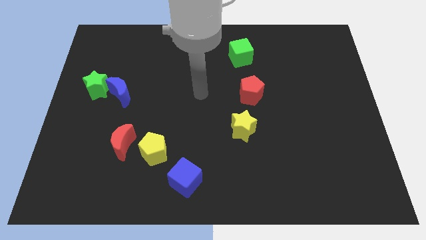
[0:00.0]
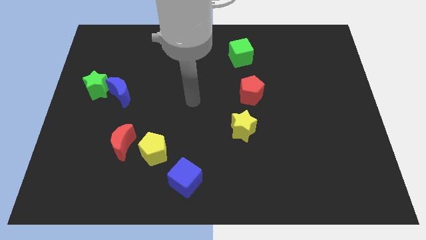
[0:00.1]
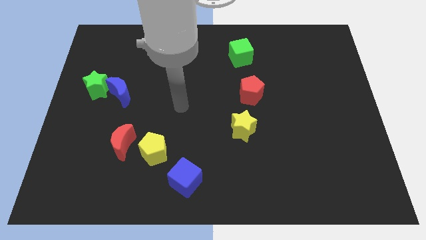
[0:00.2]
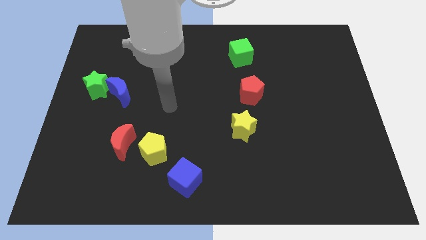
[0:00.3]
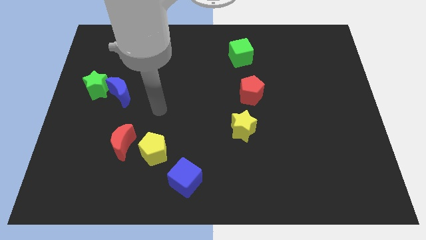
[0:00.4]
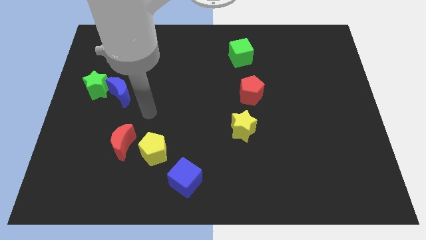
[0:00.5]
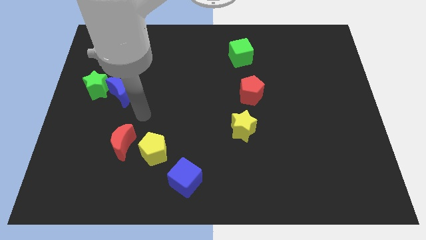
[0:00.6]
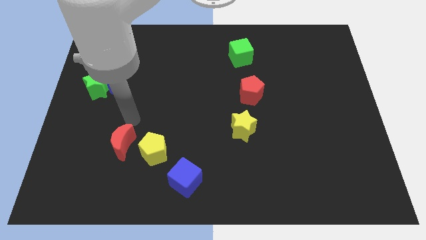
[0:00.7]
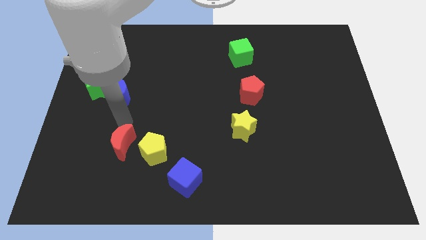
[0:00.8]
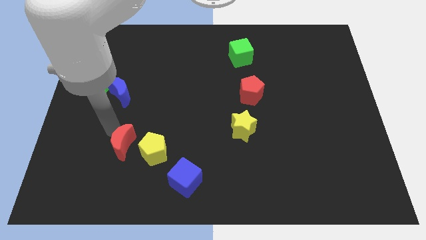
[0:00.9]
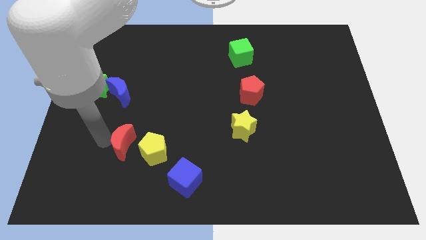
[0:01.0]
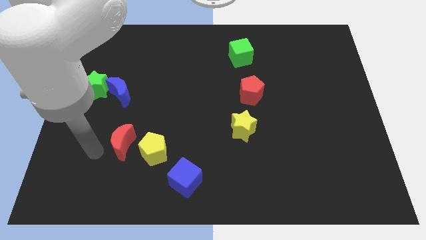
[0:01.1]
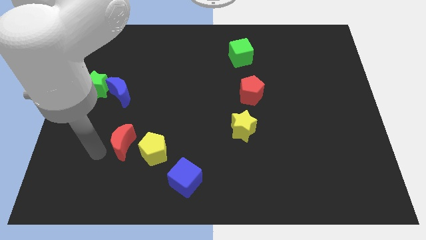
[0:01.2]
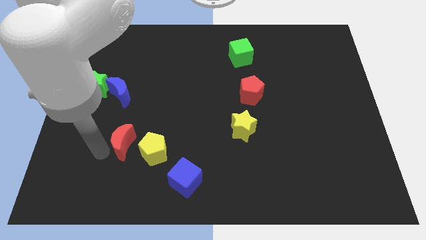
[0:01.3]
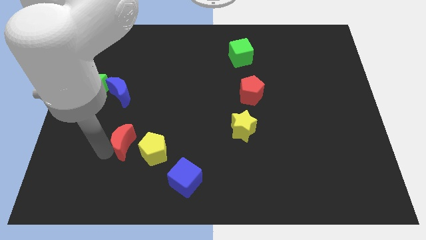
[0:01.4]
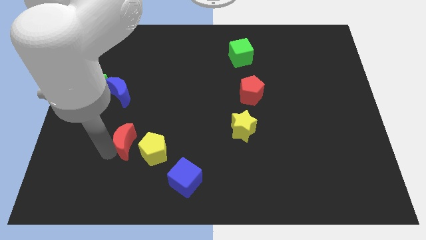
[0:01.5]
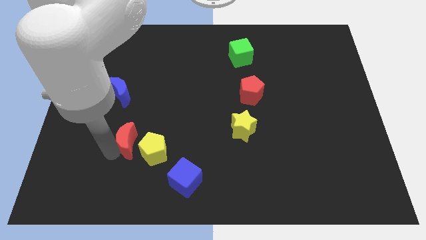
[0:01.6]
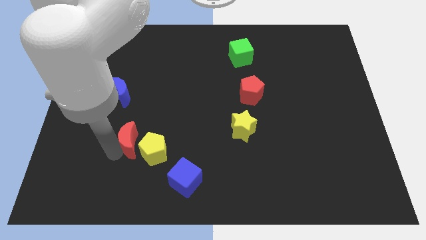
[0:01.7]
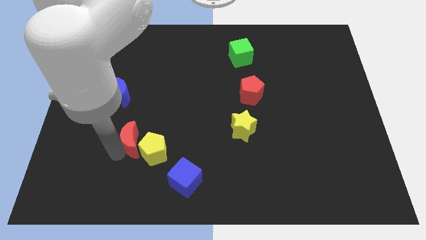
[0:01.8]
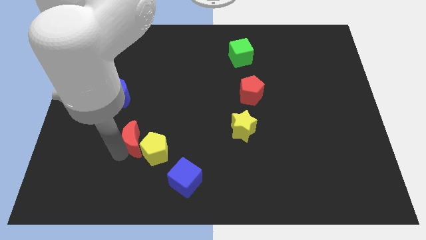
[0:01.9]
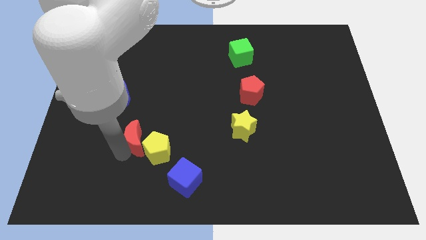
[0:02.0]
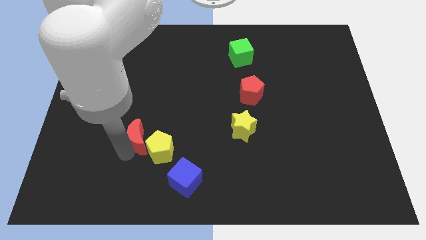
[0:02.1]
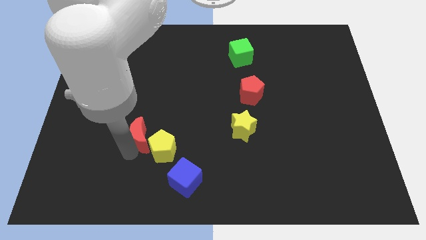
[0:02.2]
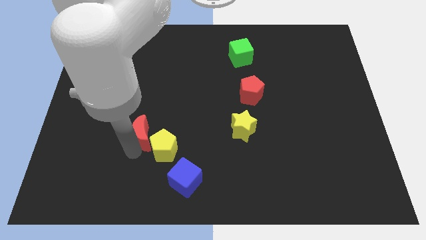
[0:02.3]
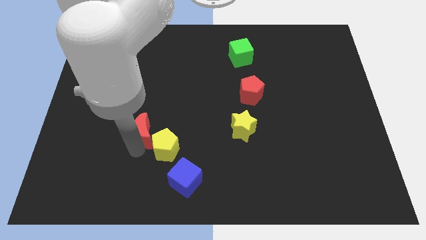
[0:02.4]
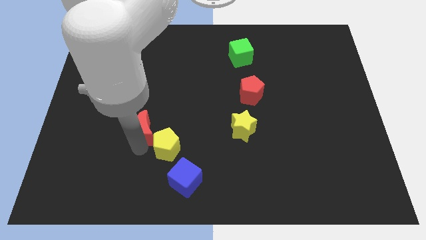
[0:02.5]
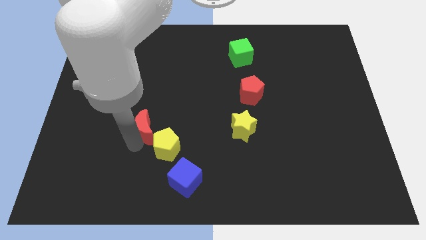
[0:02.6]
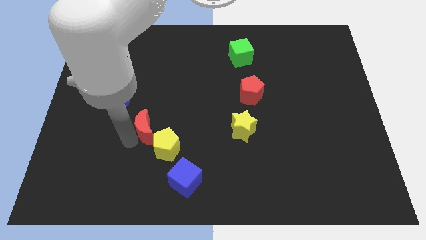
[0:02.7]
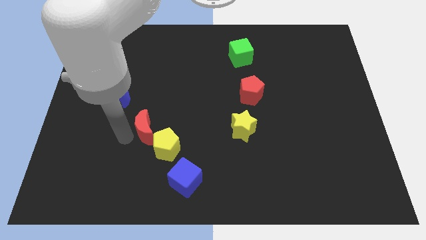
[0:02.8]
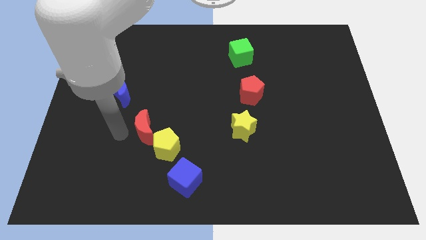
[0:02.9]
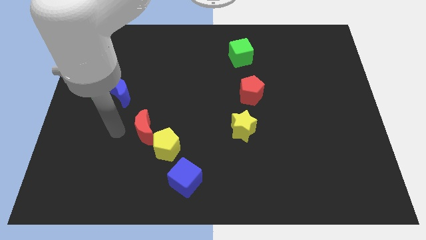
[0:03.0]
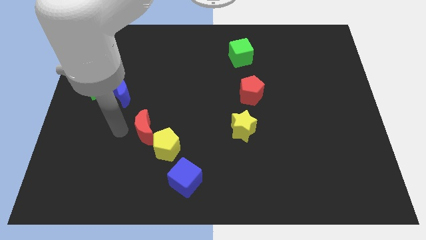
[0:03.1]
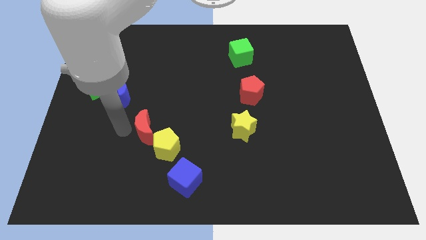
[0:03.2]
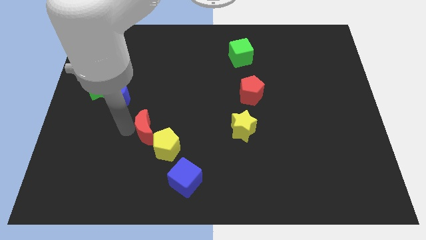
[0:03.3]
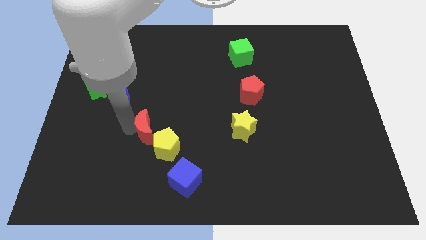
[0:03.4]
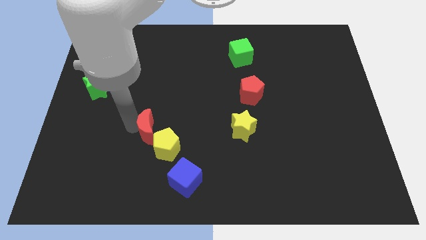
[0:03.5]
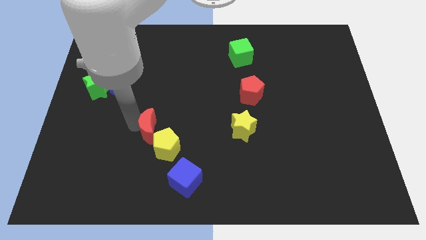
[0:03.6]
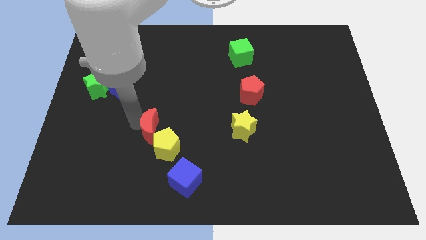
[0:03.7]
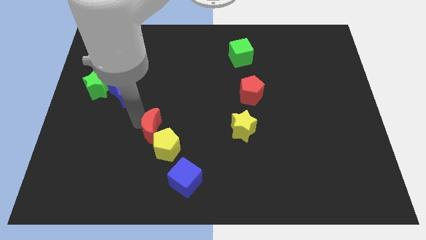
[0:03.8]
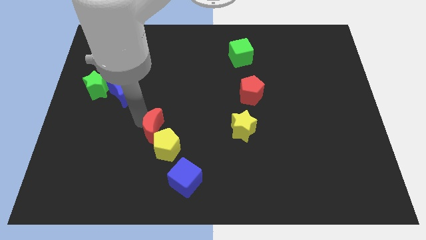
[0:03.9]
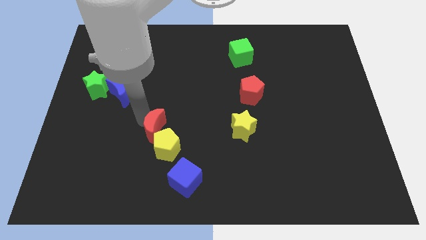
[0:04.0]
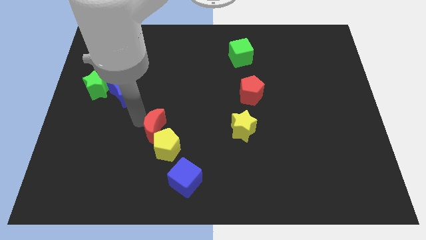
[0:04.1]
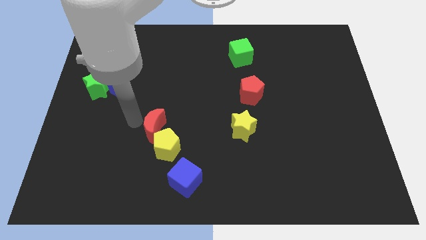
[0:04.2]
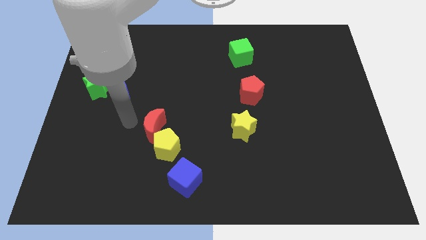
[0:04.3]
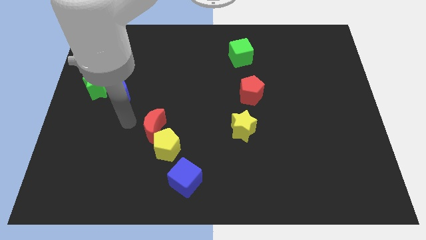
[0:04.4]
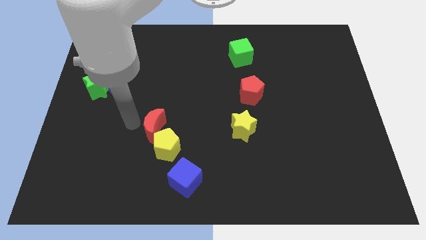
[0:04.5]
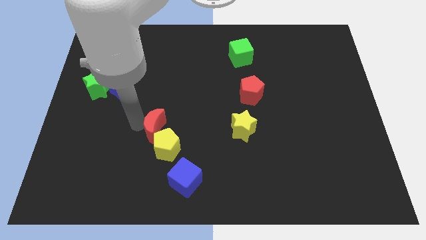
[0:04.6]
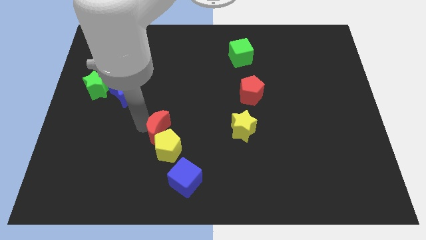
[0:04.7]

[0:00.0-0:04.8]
slightly slide the red moon to the right

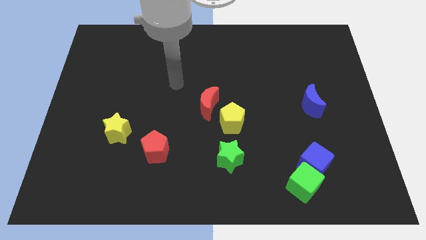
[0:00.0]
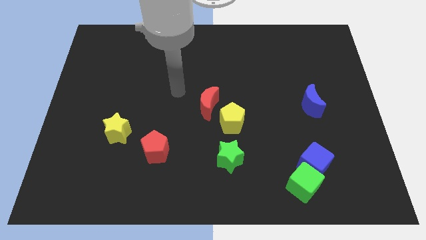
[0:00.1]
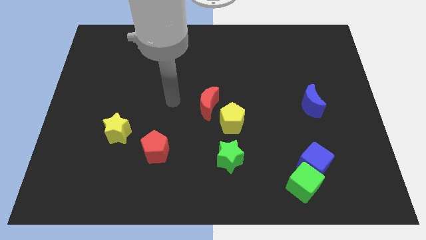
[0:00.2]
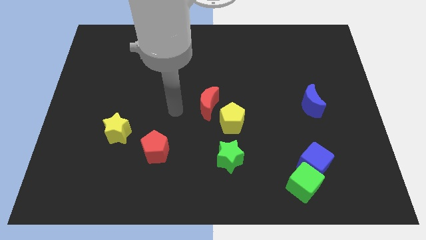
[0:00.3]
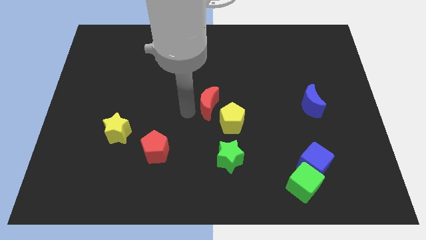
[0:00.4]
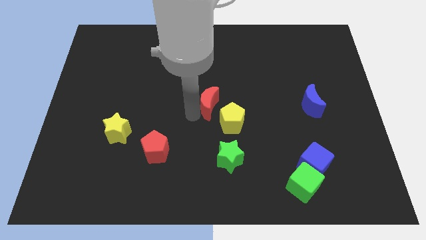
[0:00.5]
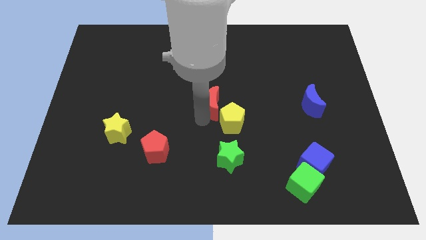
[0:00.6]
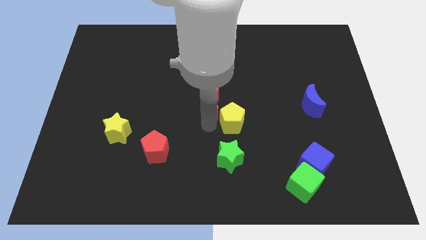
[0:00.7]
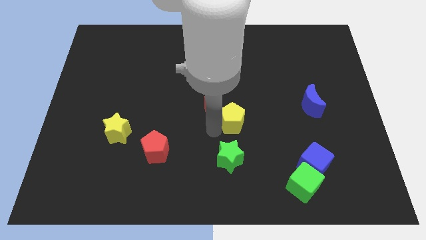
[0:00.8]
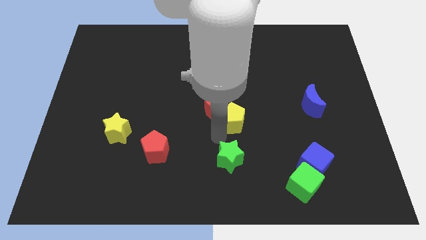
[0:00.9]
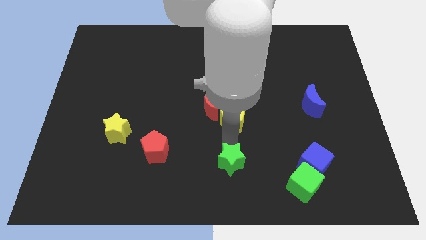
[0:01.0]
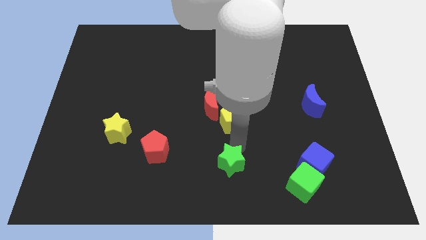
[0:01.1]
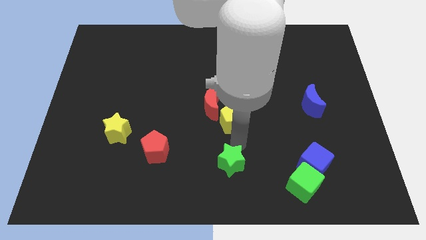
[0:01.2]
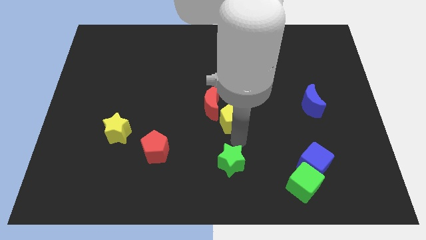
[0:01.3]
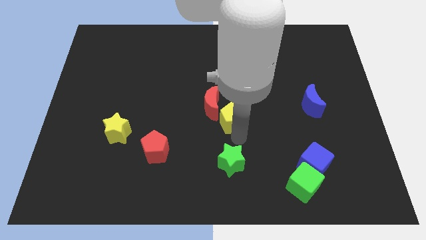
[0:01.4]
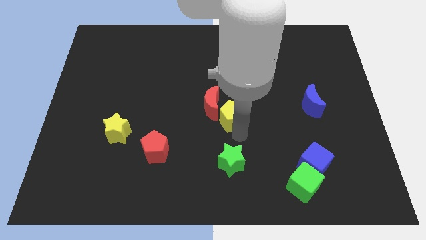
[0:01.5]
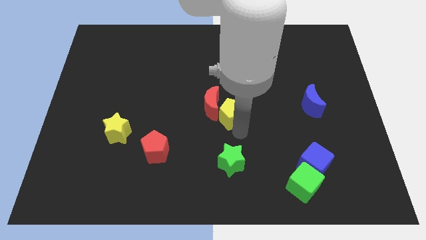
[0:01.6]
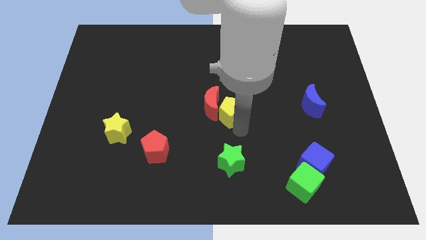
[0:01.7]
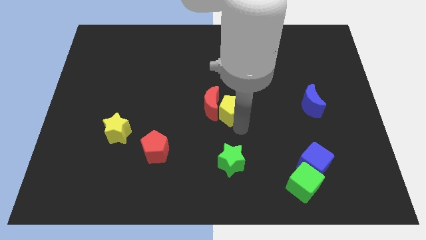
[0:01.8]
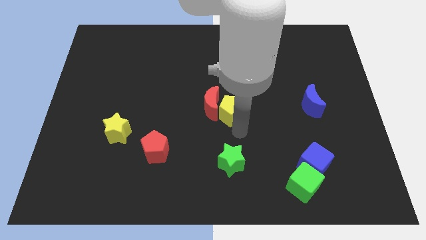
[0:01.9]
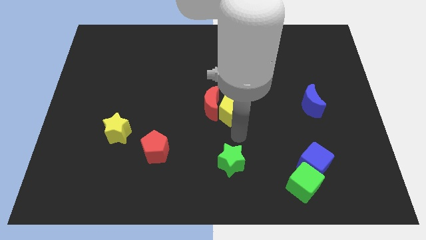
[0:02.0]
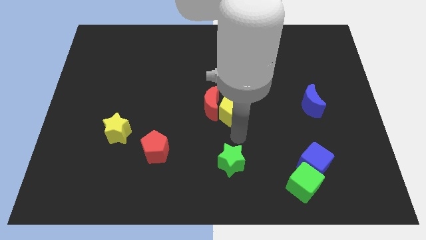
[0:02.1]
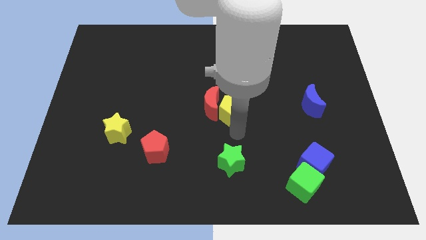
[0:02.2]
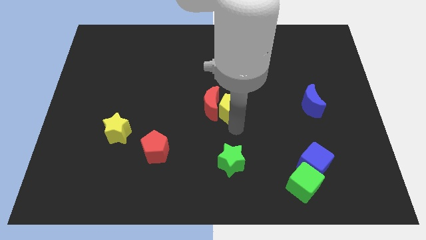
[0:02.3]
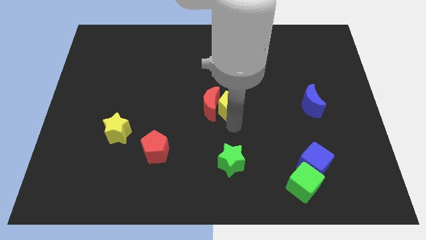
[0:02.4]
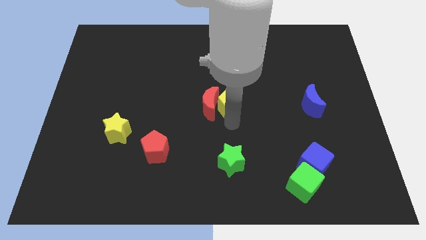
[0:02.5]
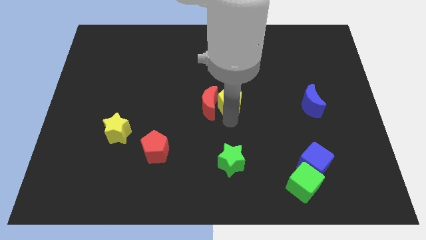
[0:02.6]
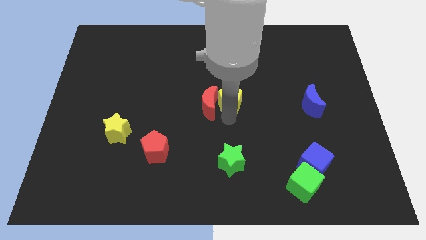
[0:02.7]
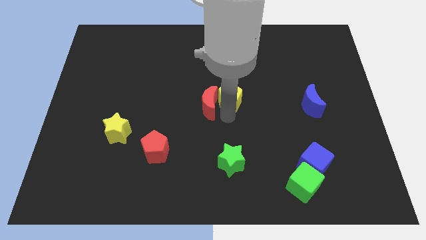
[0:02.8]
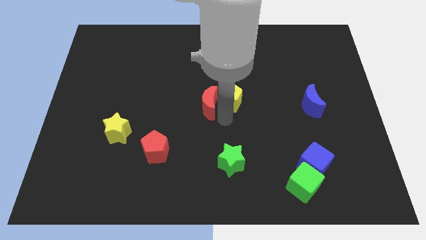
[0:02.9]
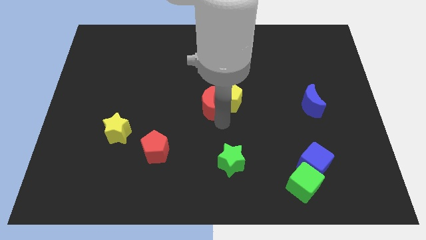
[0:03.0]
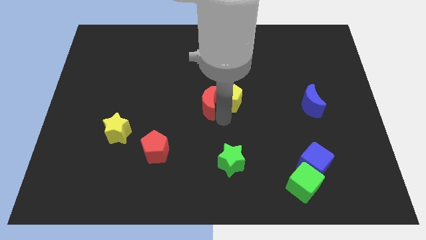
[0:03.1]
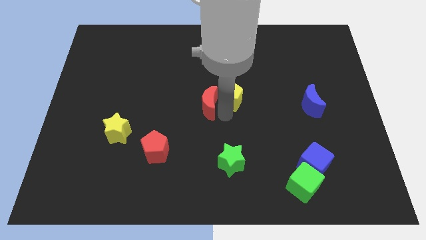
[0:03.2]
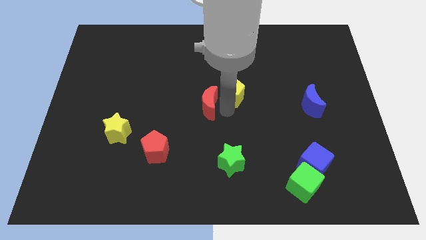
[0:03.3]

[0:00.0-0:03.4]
slightly slide the yellow pentagon up
